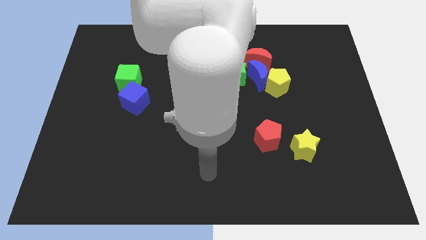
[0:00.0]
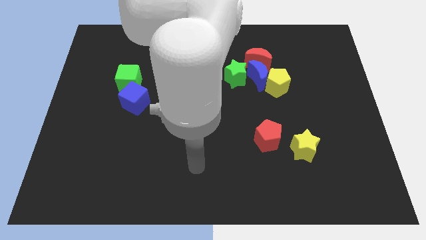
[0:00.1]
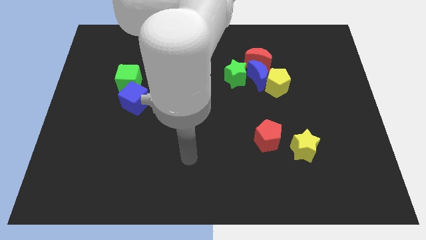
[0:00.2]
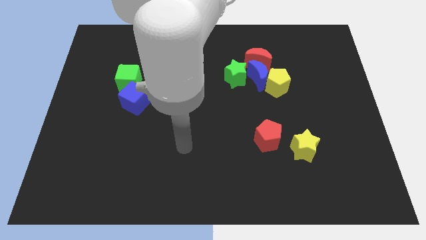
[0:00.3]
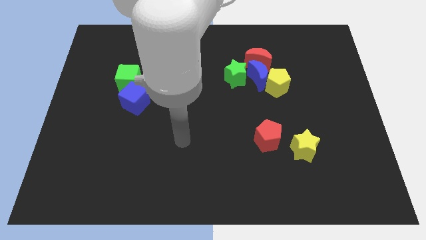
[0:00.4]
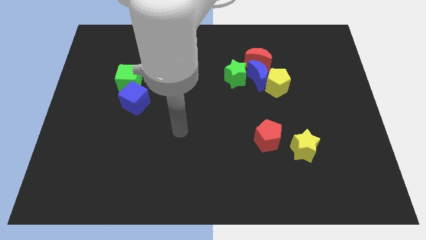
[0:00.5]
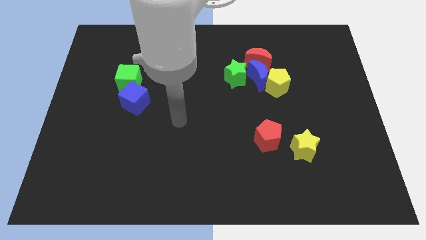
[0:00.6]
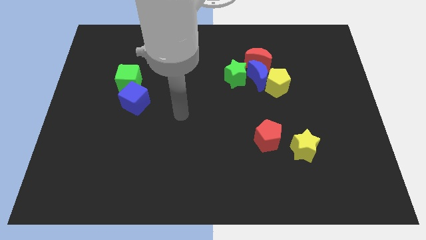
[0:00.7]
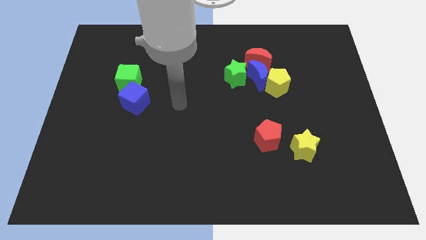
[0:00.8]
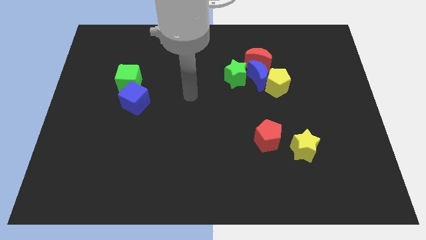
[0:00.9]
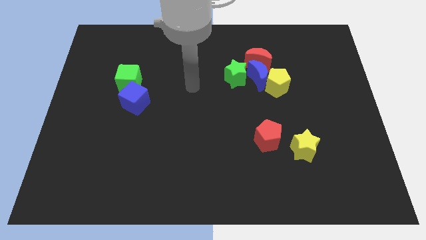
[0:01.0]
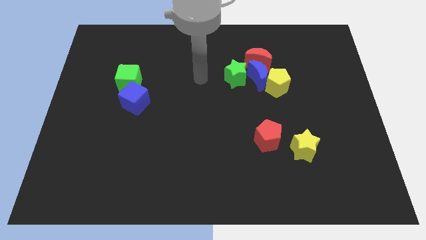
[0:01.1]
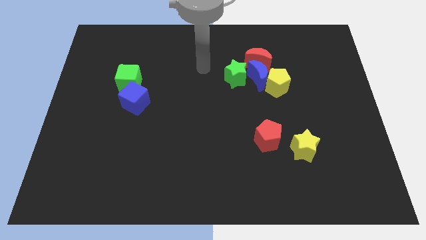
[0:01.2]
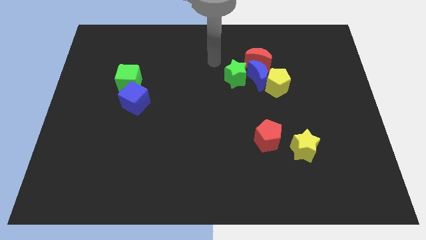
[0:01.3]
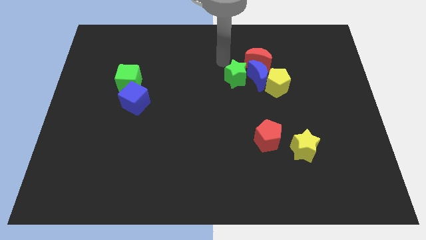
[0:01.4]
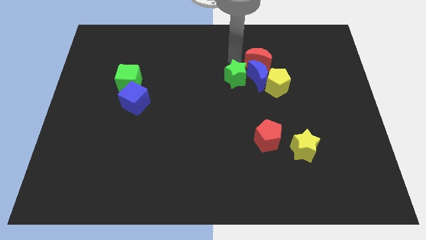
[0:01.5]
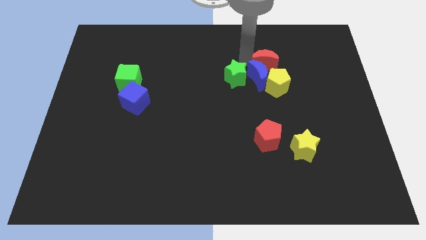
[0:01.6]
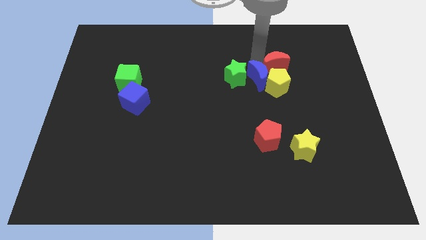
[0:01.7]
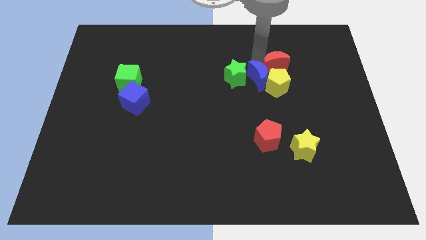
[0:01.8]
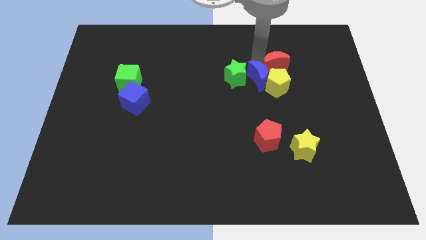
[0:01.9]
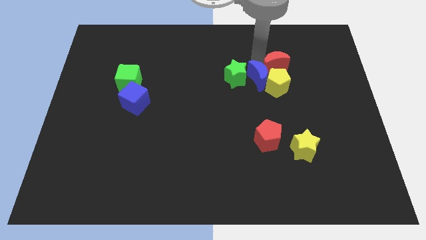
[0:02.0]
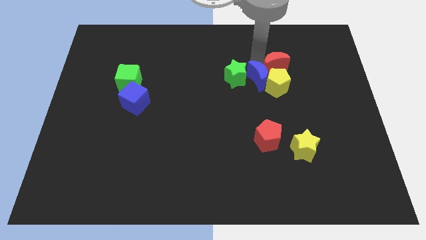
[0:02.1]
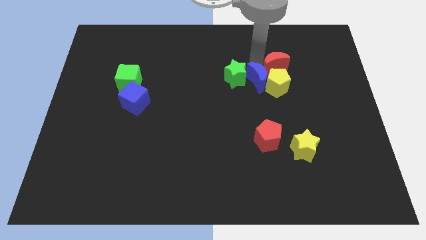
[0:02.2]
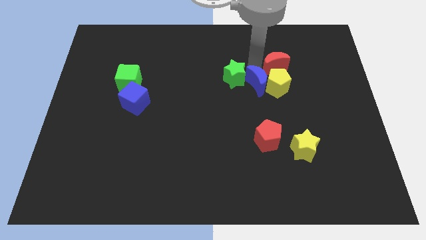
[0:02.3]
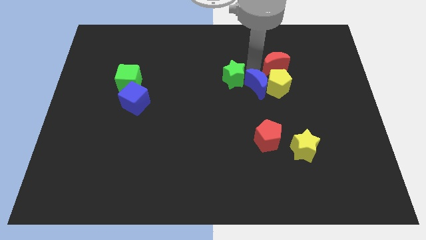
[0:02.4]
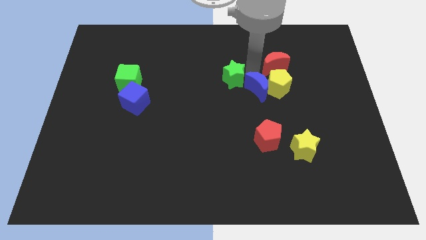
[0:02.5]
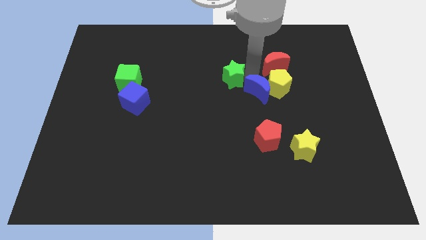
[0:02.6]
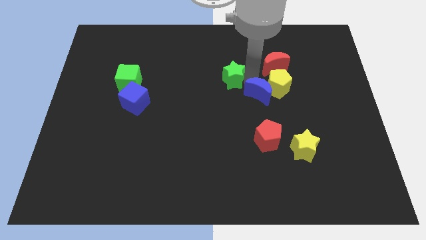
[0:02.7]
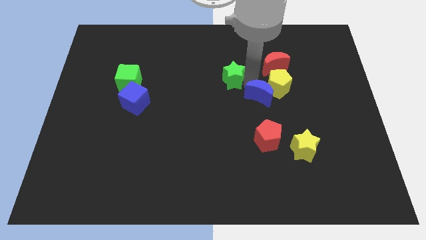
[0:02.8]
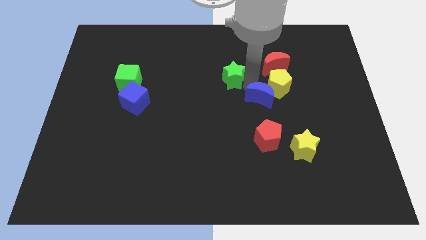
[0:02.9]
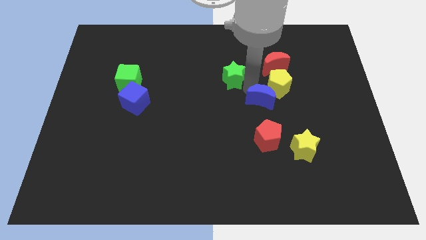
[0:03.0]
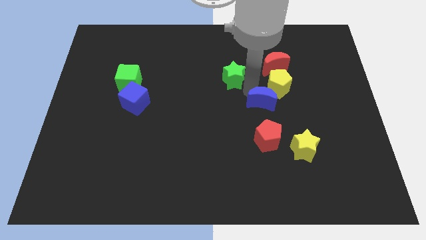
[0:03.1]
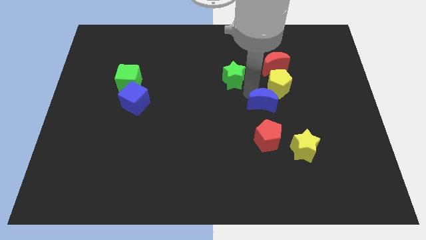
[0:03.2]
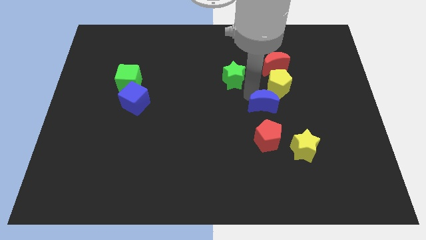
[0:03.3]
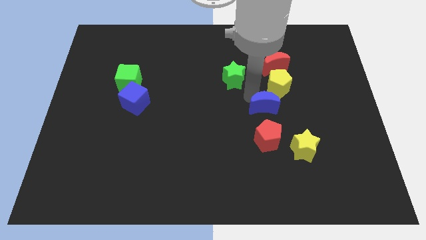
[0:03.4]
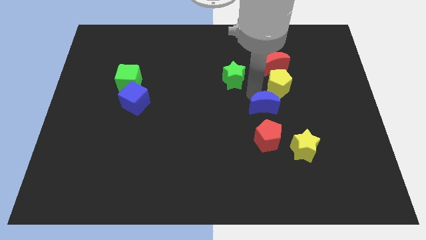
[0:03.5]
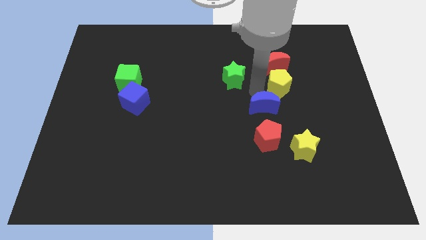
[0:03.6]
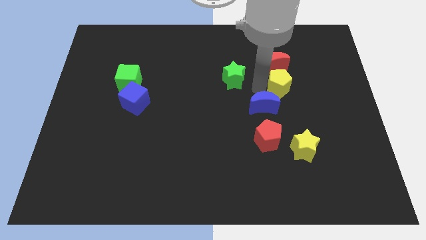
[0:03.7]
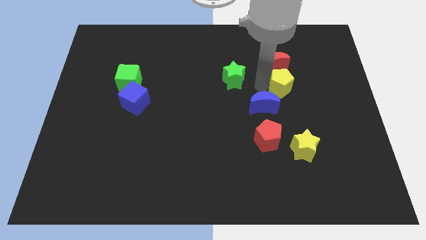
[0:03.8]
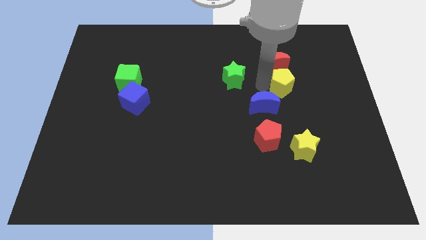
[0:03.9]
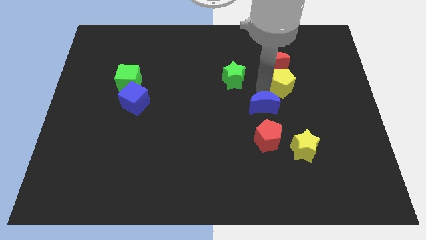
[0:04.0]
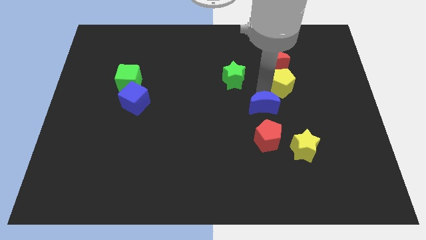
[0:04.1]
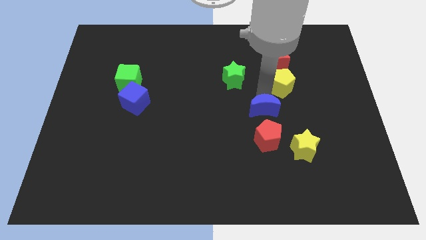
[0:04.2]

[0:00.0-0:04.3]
move the blue moon away from the group of blocks

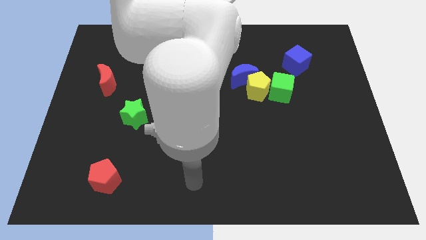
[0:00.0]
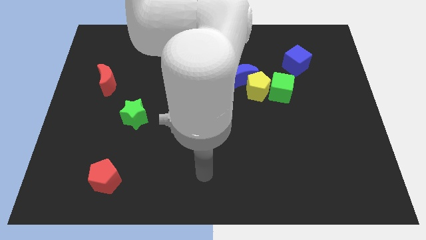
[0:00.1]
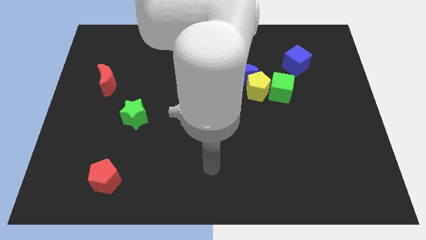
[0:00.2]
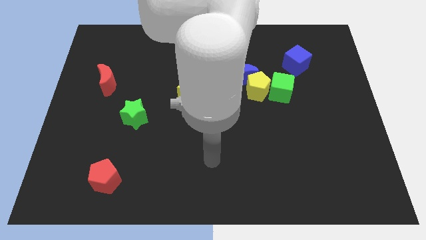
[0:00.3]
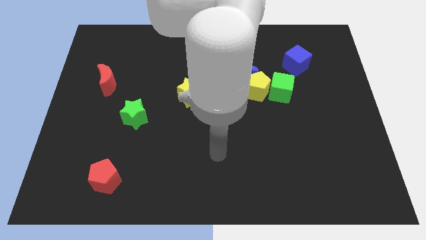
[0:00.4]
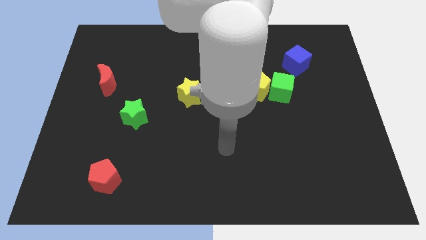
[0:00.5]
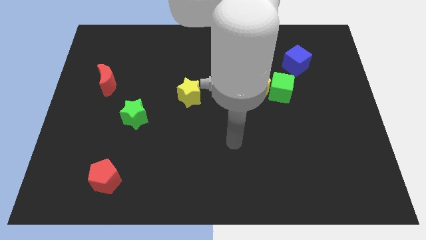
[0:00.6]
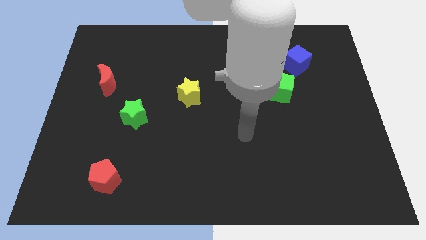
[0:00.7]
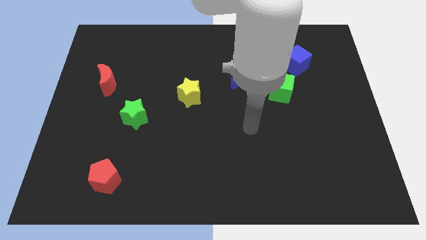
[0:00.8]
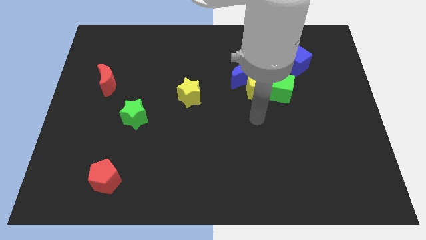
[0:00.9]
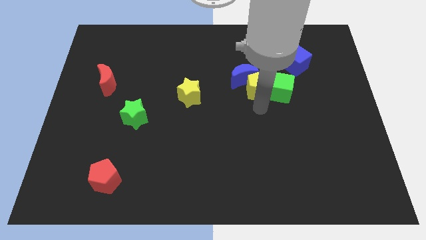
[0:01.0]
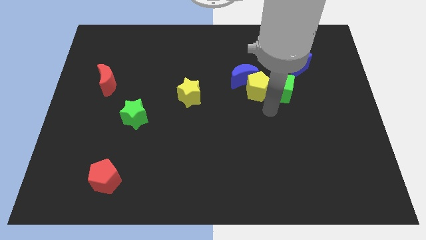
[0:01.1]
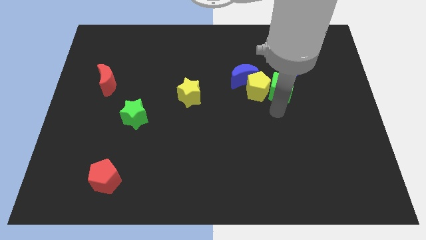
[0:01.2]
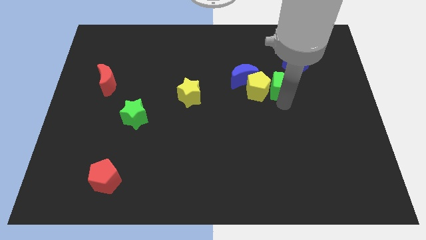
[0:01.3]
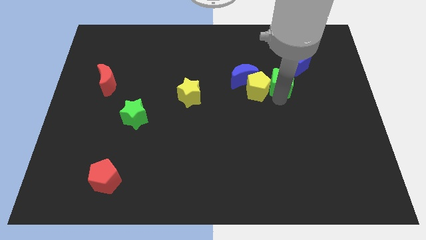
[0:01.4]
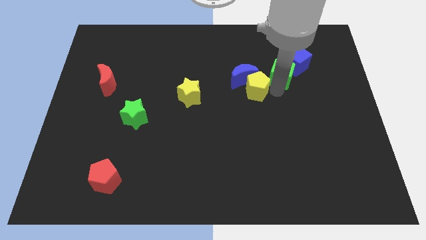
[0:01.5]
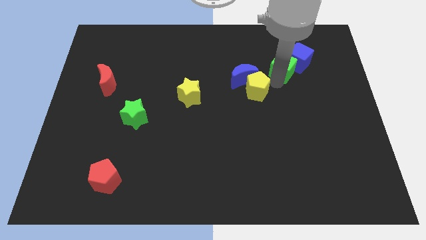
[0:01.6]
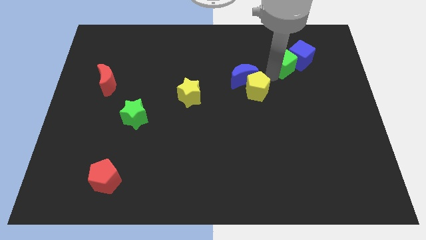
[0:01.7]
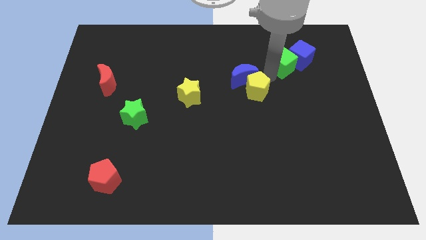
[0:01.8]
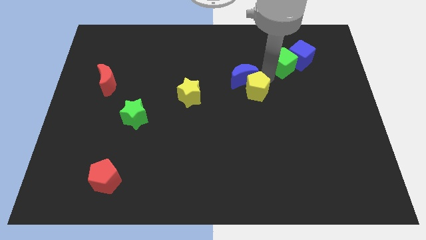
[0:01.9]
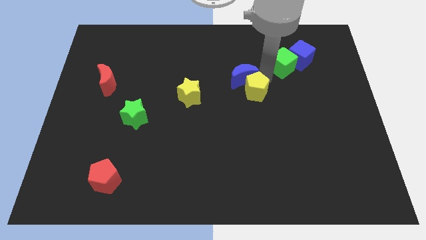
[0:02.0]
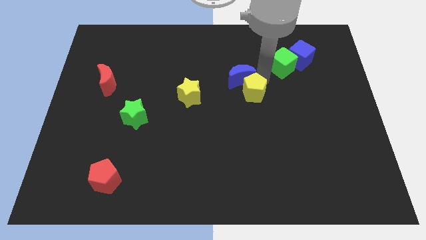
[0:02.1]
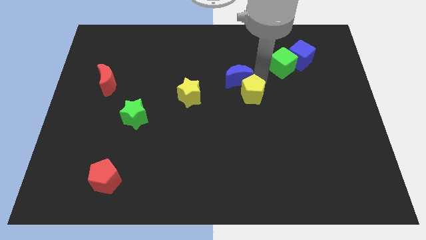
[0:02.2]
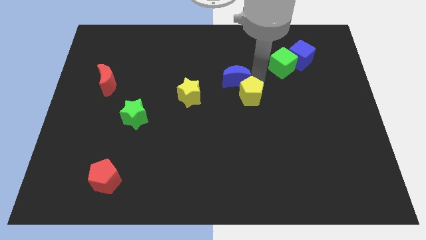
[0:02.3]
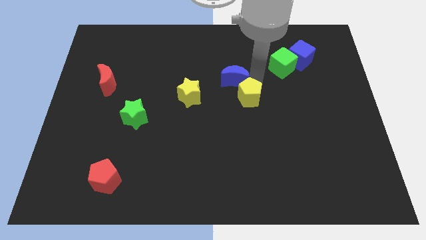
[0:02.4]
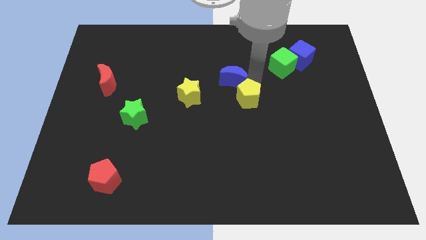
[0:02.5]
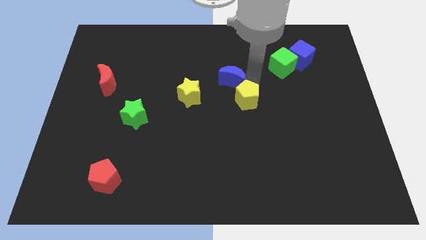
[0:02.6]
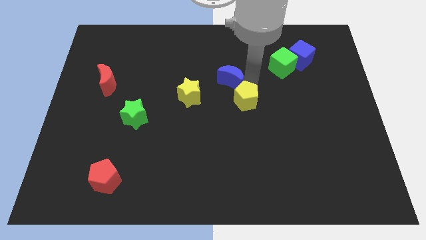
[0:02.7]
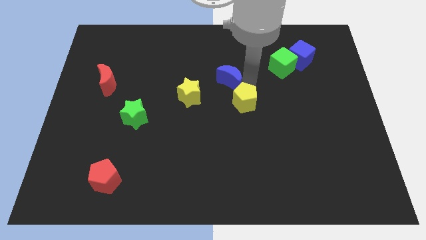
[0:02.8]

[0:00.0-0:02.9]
pull the yellow pentagon apart from the blue moon and green cube

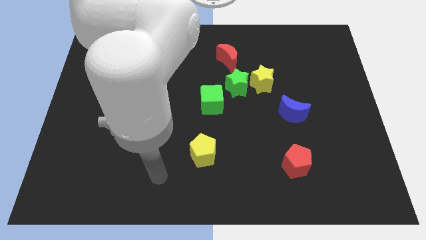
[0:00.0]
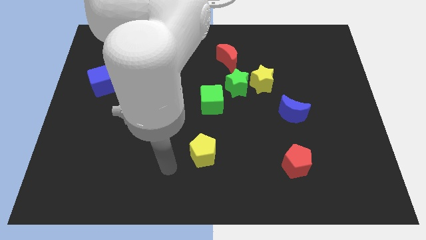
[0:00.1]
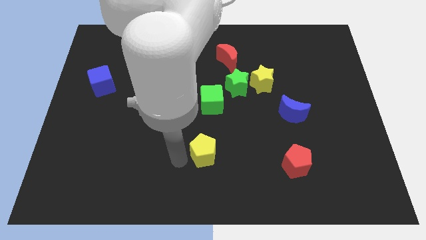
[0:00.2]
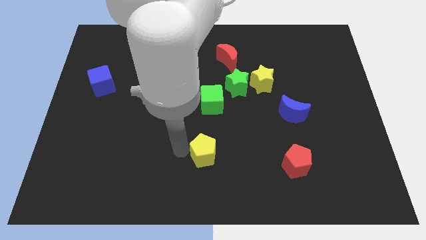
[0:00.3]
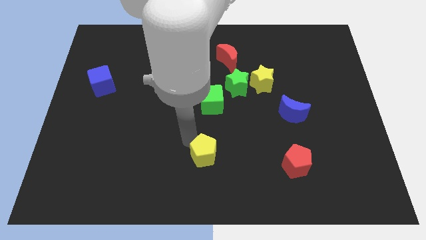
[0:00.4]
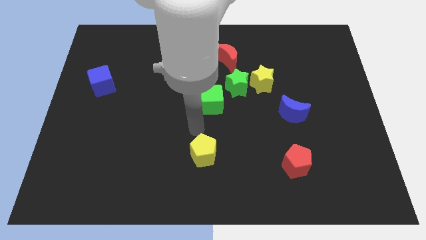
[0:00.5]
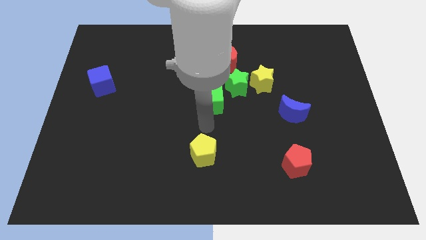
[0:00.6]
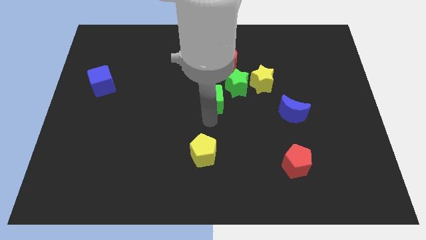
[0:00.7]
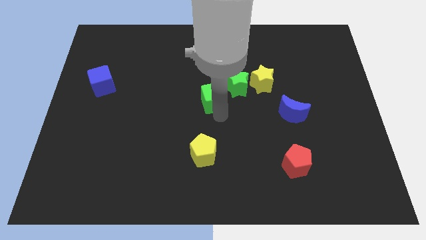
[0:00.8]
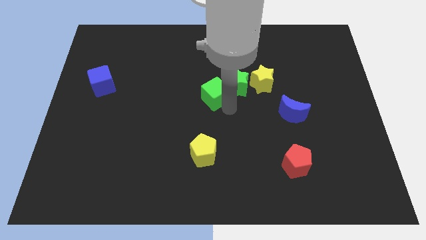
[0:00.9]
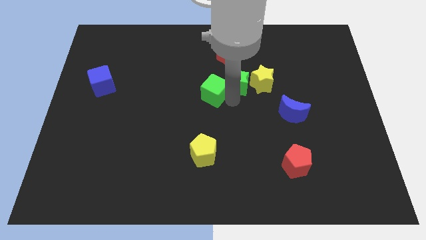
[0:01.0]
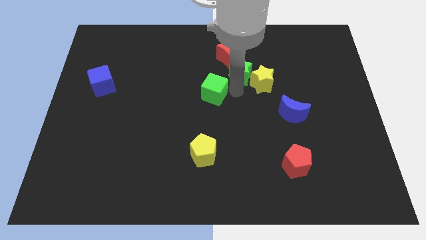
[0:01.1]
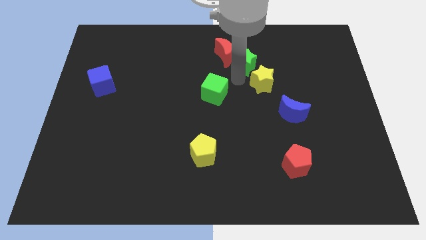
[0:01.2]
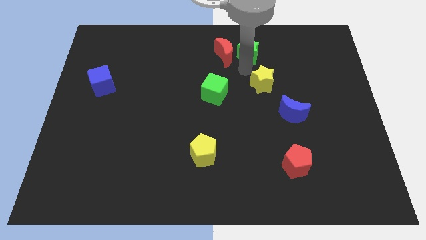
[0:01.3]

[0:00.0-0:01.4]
separate the yellow star from the green star

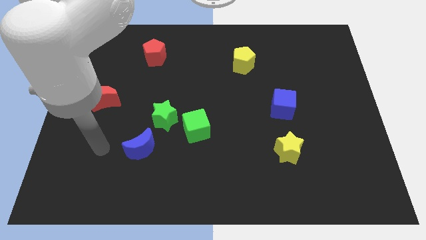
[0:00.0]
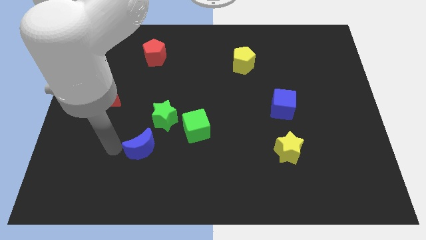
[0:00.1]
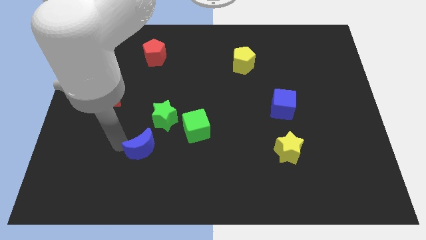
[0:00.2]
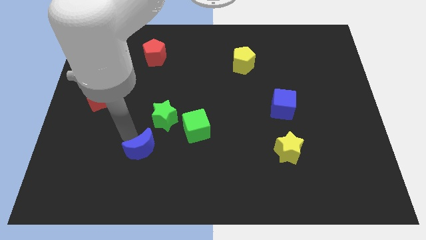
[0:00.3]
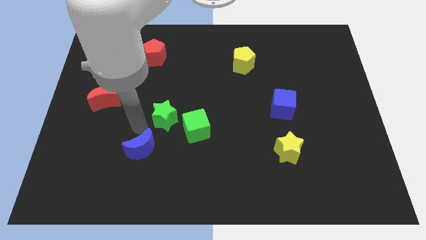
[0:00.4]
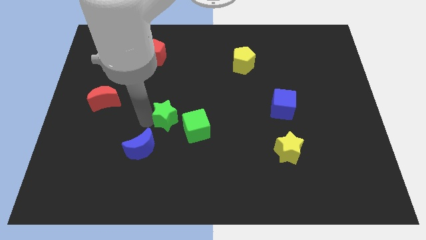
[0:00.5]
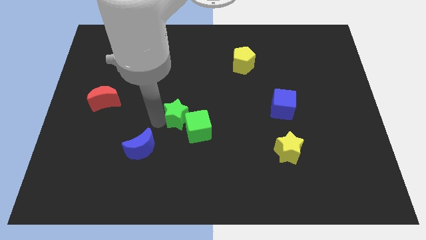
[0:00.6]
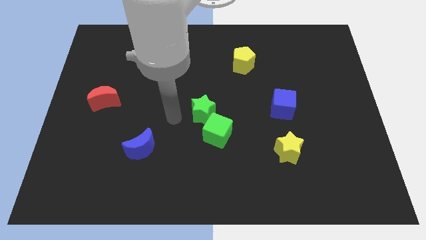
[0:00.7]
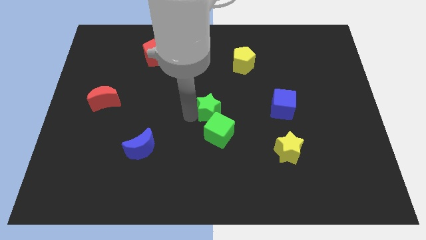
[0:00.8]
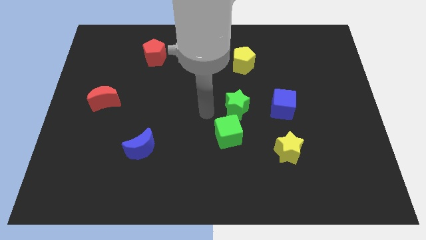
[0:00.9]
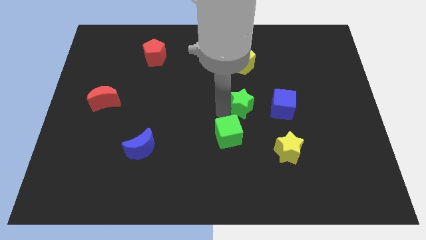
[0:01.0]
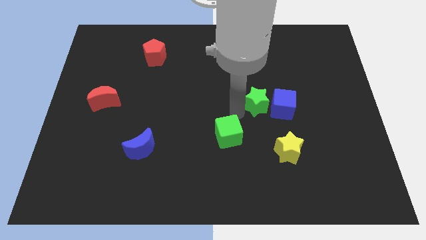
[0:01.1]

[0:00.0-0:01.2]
separate the green cube from the green star
